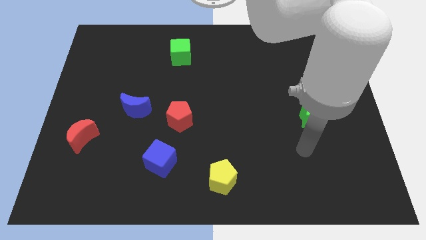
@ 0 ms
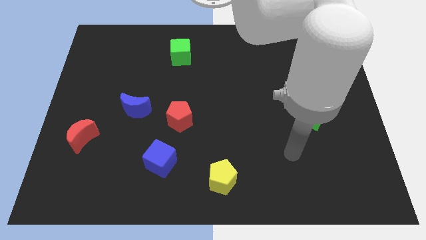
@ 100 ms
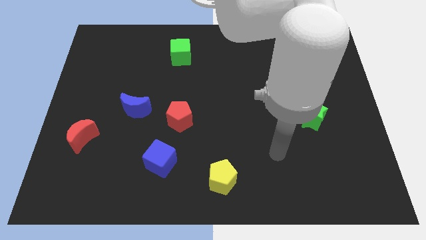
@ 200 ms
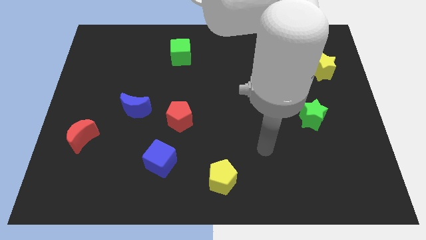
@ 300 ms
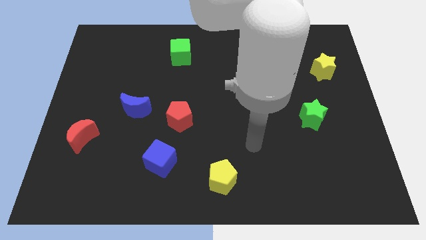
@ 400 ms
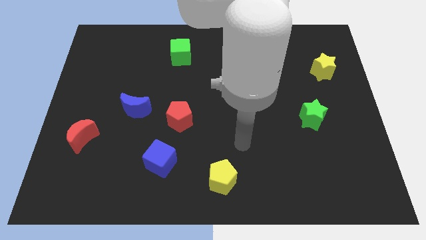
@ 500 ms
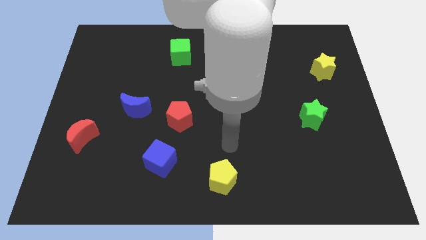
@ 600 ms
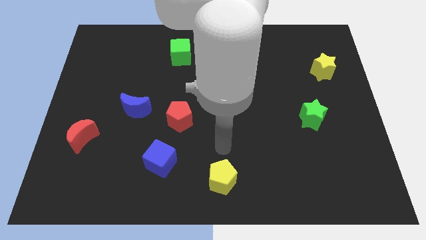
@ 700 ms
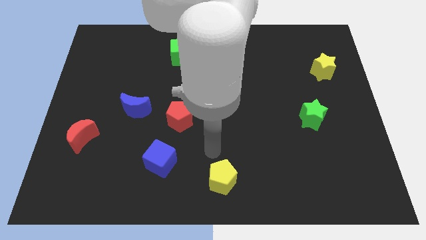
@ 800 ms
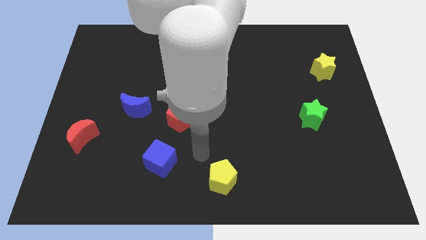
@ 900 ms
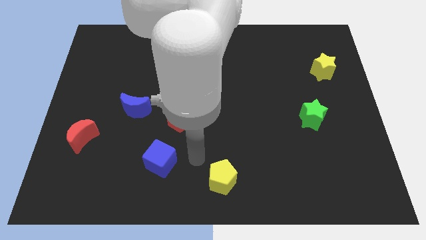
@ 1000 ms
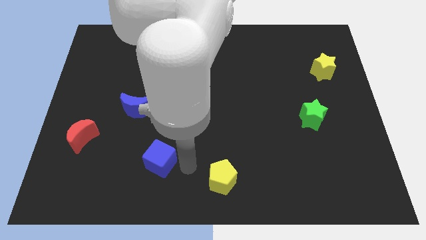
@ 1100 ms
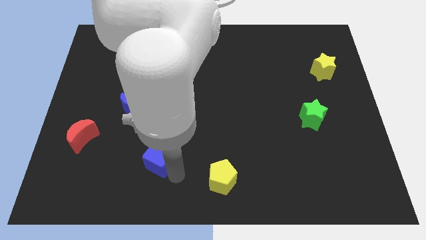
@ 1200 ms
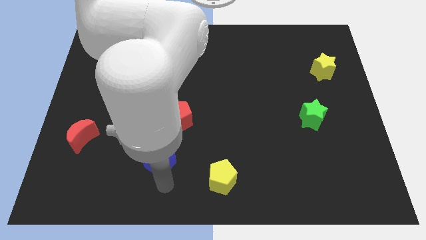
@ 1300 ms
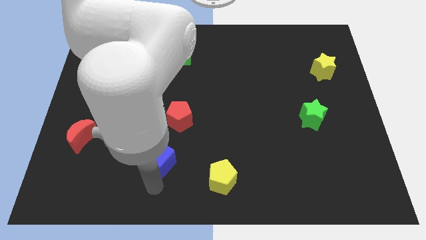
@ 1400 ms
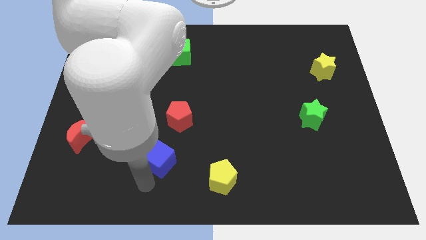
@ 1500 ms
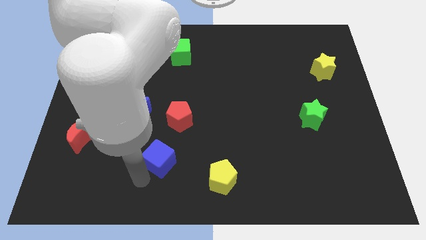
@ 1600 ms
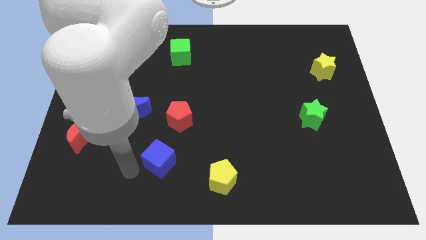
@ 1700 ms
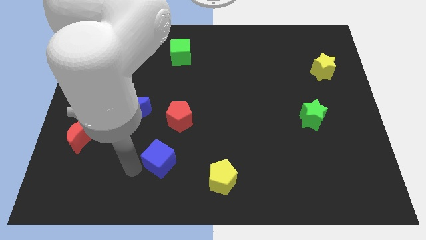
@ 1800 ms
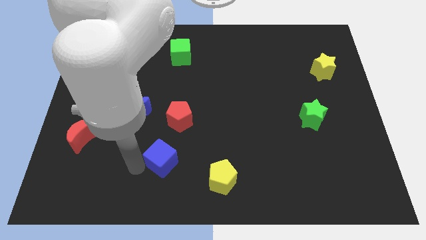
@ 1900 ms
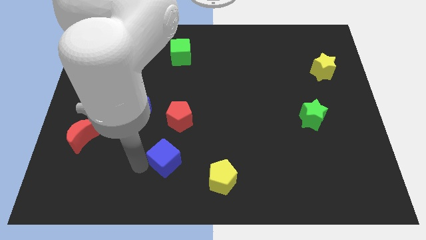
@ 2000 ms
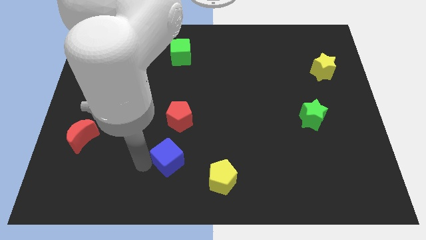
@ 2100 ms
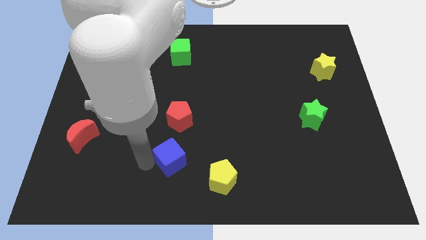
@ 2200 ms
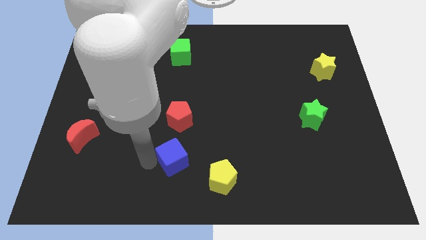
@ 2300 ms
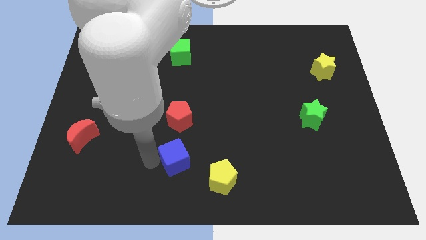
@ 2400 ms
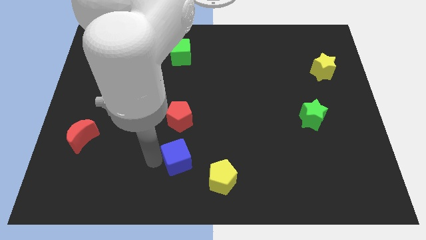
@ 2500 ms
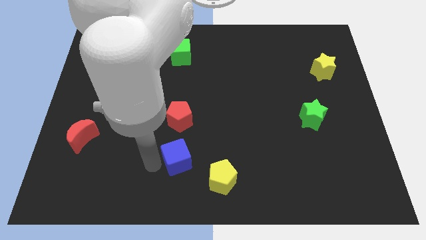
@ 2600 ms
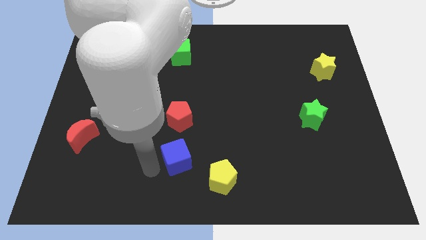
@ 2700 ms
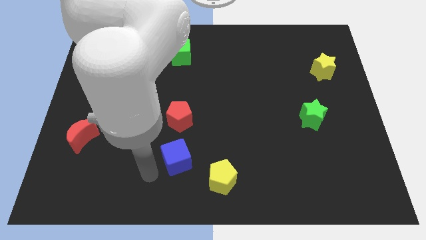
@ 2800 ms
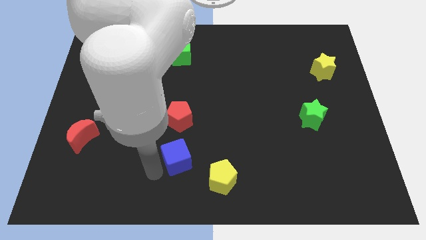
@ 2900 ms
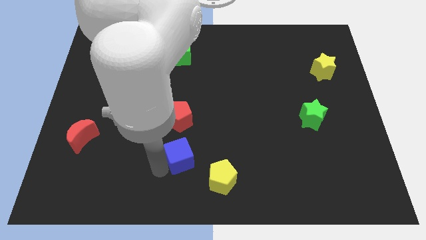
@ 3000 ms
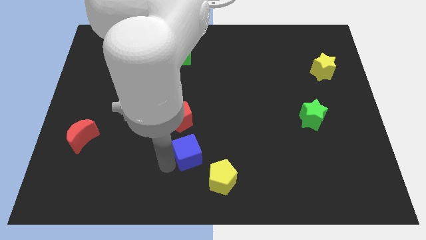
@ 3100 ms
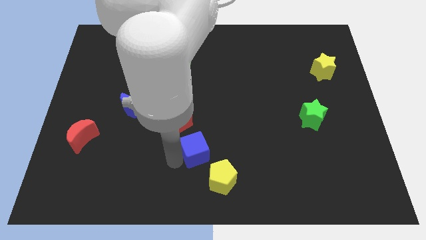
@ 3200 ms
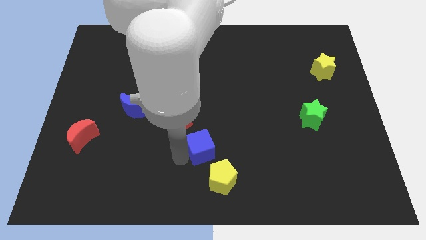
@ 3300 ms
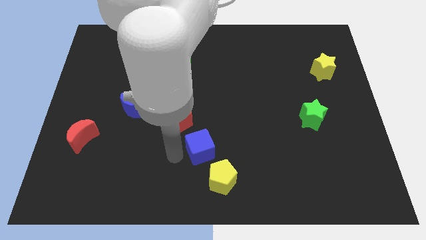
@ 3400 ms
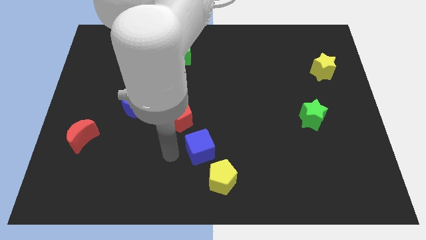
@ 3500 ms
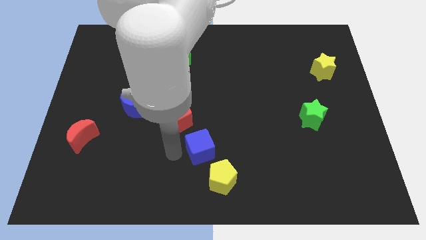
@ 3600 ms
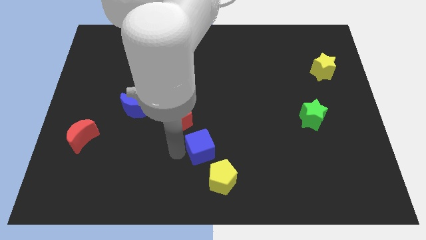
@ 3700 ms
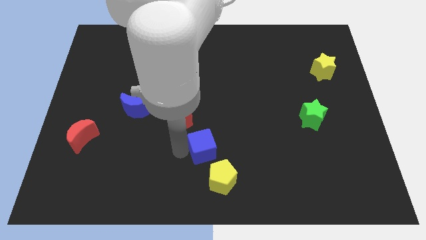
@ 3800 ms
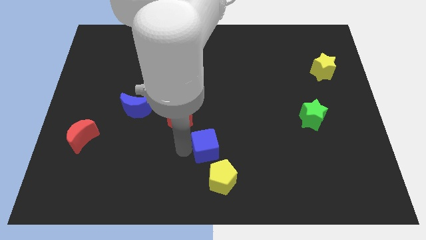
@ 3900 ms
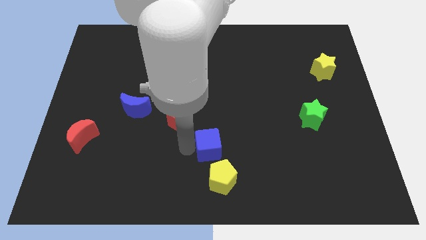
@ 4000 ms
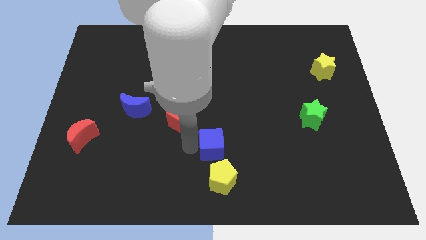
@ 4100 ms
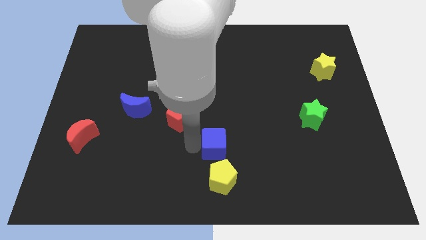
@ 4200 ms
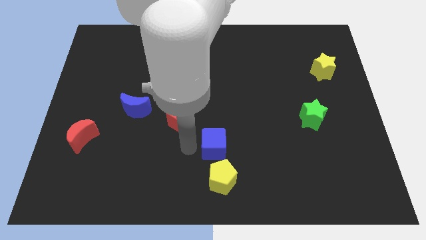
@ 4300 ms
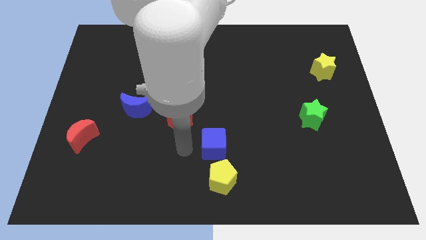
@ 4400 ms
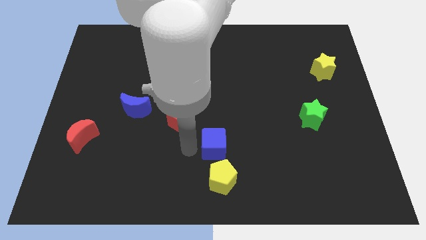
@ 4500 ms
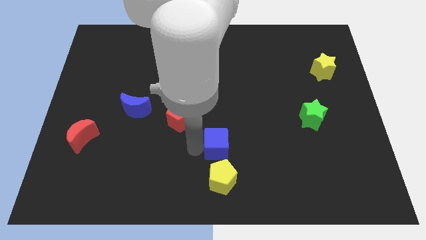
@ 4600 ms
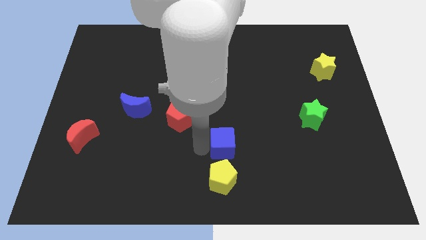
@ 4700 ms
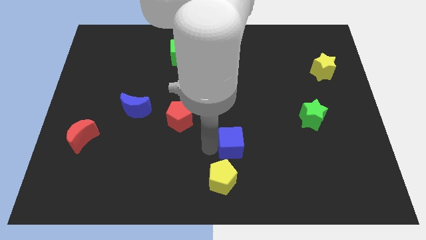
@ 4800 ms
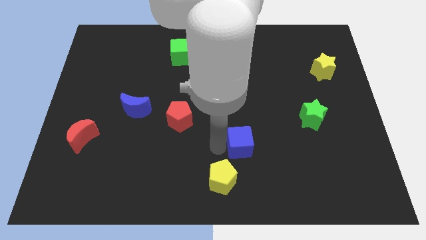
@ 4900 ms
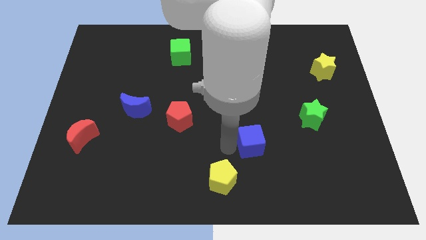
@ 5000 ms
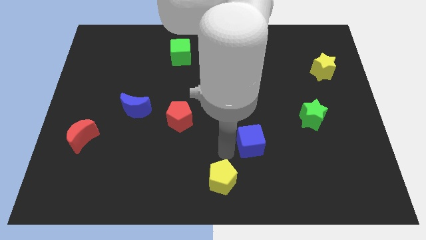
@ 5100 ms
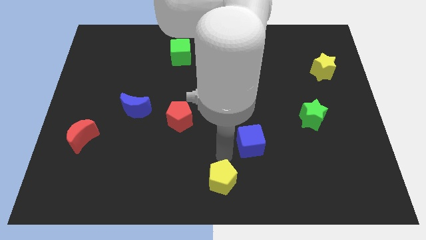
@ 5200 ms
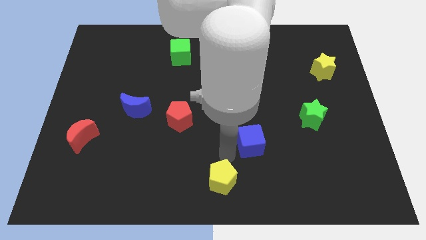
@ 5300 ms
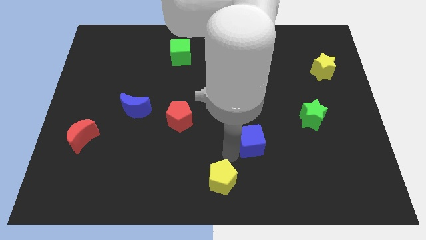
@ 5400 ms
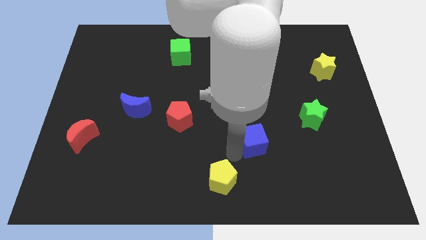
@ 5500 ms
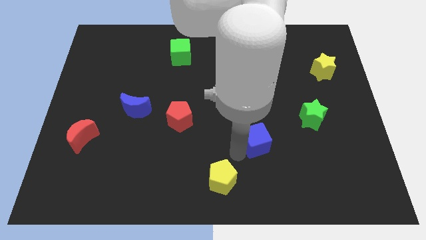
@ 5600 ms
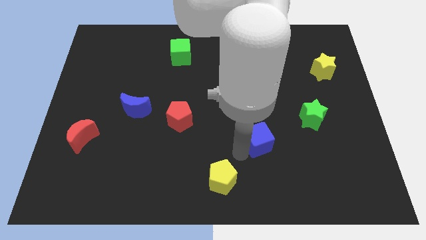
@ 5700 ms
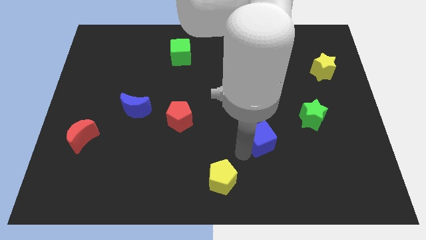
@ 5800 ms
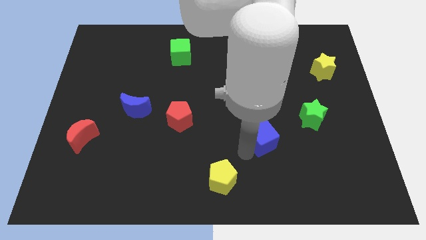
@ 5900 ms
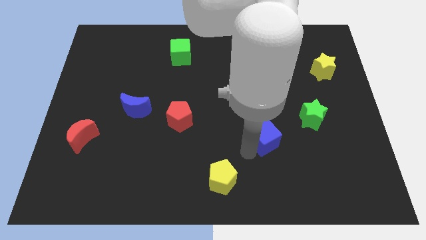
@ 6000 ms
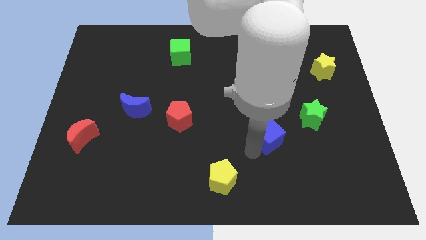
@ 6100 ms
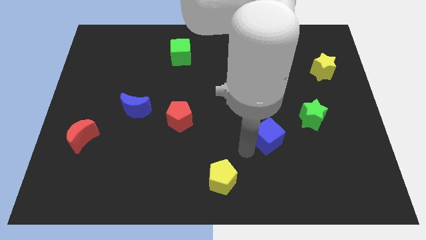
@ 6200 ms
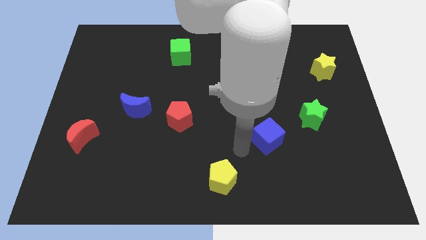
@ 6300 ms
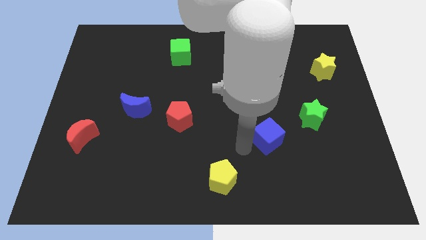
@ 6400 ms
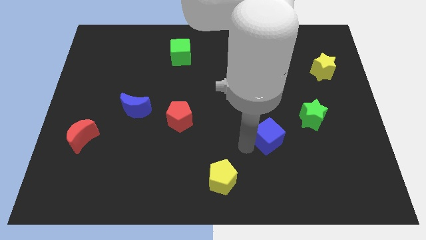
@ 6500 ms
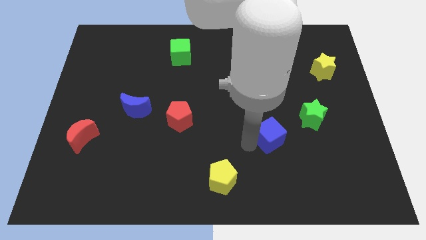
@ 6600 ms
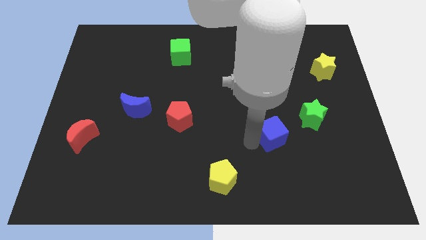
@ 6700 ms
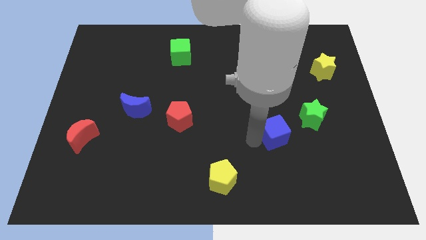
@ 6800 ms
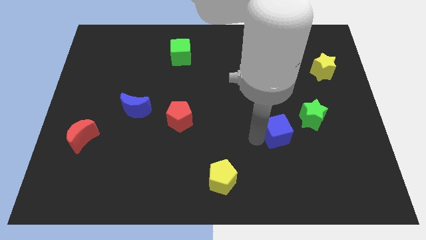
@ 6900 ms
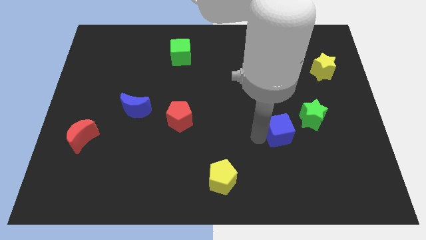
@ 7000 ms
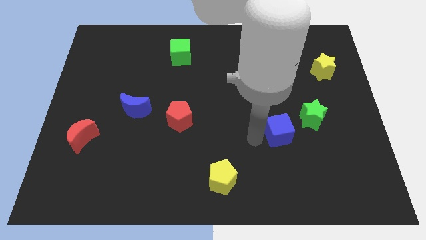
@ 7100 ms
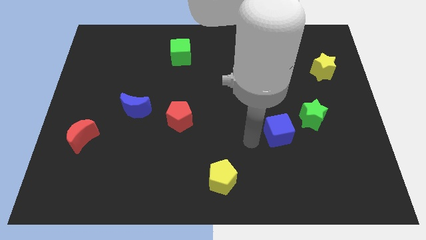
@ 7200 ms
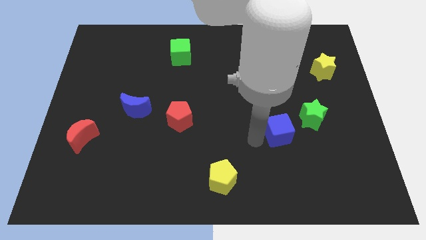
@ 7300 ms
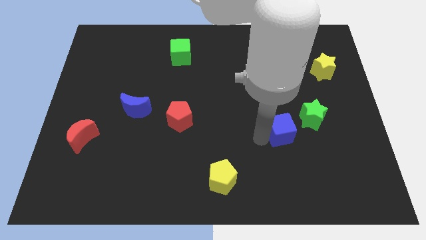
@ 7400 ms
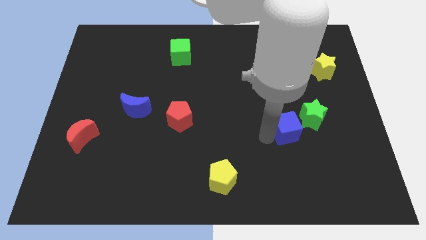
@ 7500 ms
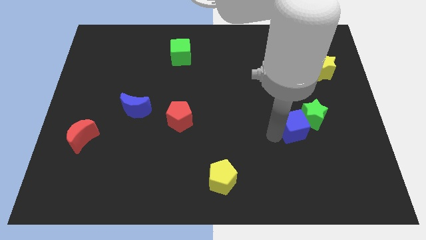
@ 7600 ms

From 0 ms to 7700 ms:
push the blue cube close to the green star

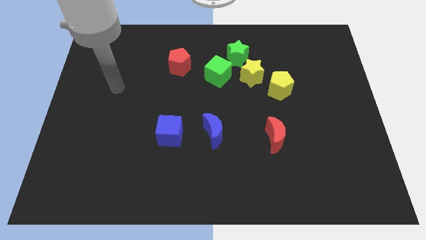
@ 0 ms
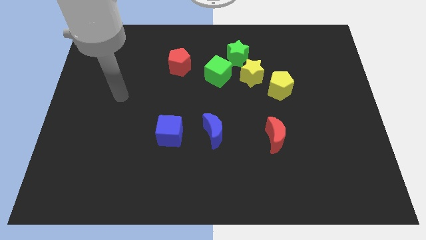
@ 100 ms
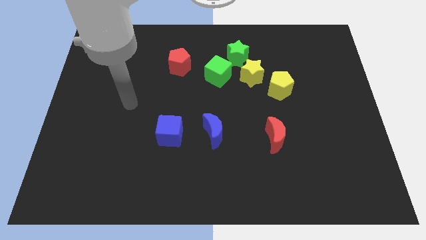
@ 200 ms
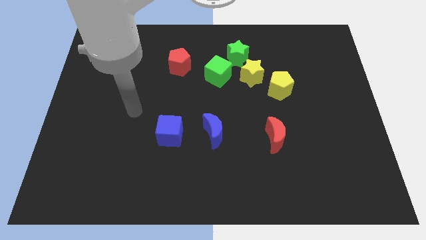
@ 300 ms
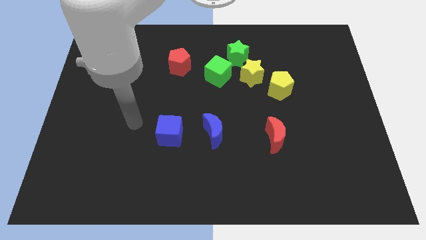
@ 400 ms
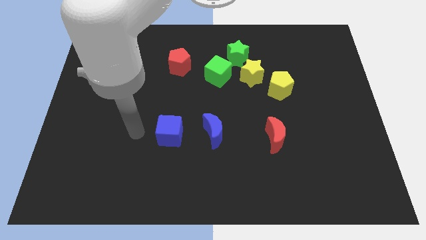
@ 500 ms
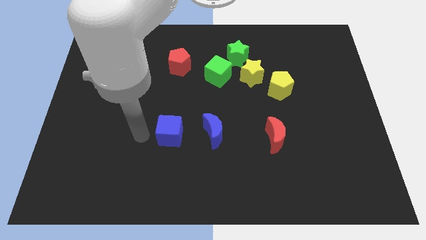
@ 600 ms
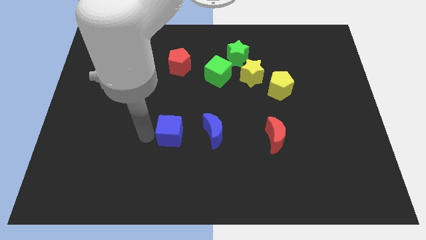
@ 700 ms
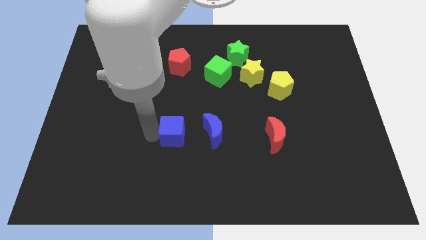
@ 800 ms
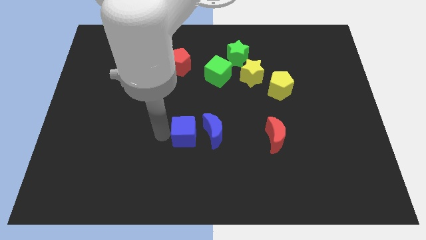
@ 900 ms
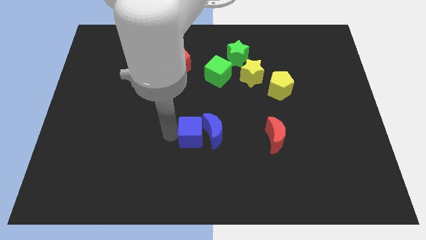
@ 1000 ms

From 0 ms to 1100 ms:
slide the blue cube to the blue moon
